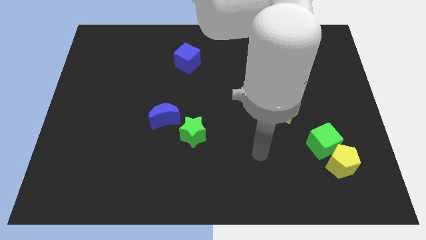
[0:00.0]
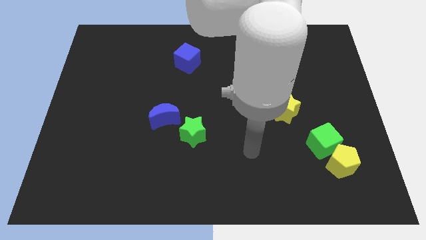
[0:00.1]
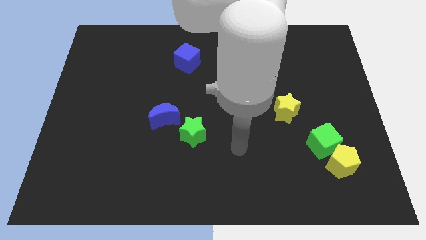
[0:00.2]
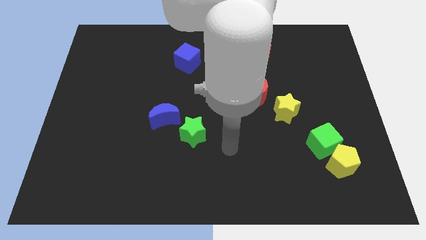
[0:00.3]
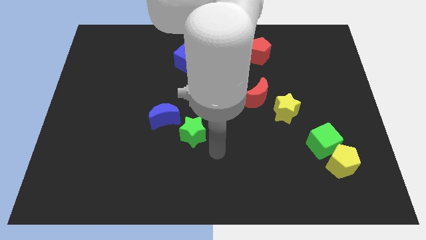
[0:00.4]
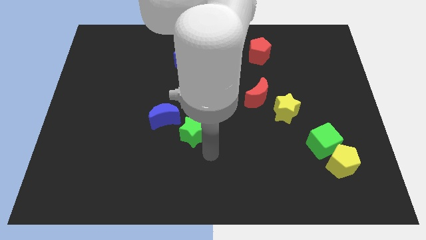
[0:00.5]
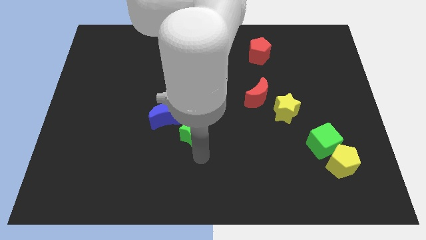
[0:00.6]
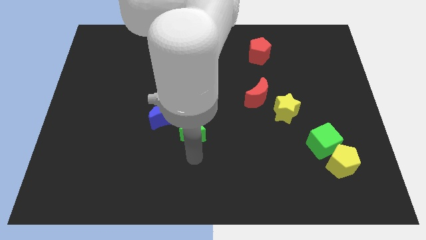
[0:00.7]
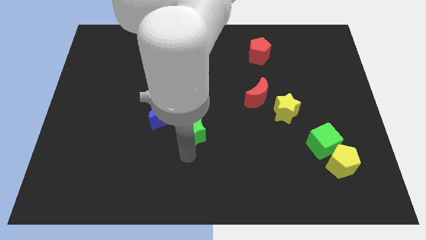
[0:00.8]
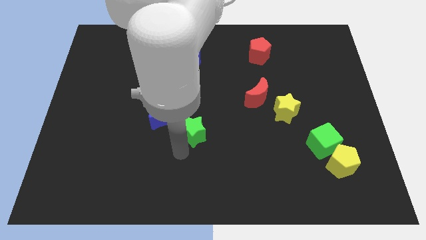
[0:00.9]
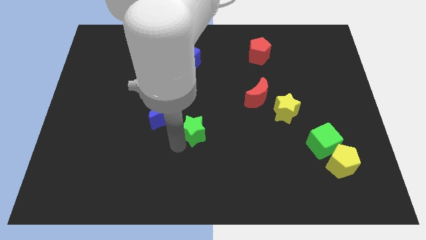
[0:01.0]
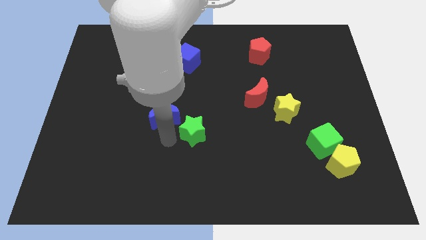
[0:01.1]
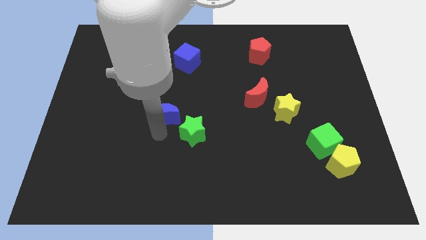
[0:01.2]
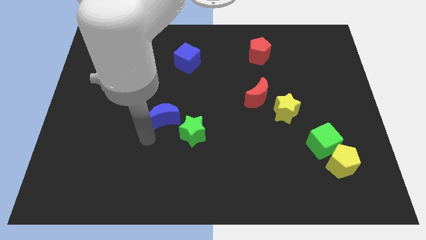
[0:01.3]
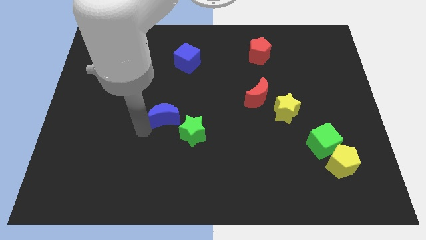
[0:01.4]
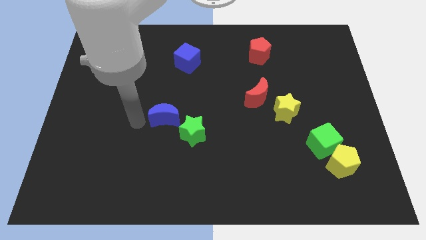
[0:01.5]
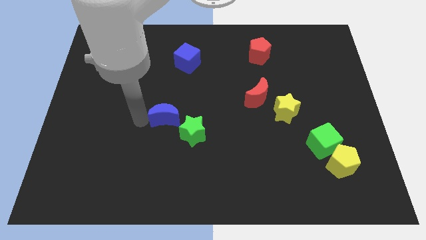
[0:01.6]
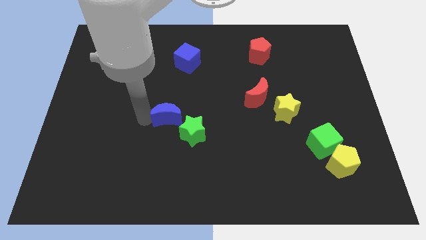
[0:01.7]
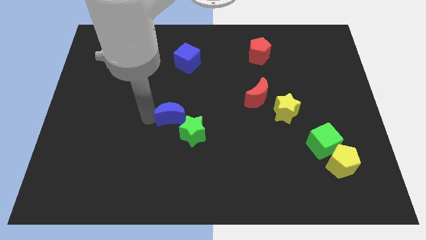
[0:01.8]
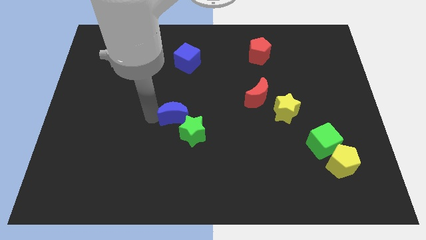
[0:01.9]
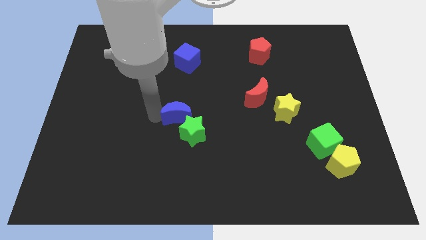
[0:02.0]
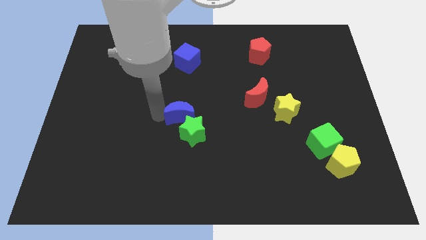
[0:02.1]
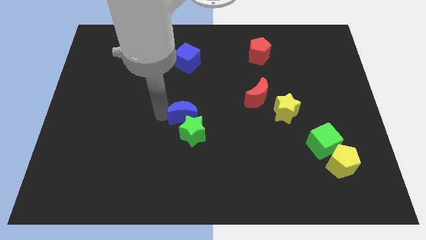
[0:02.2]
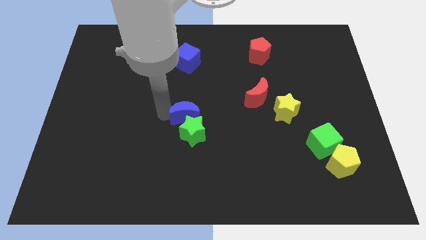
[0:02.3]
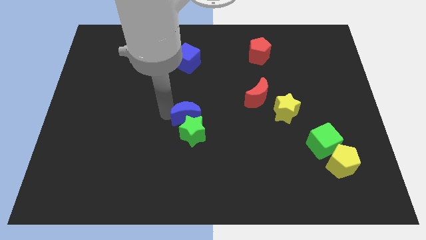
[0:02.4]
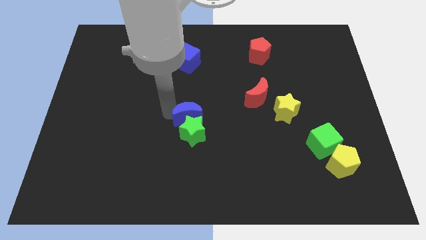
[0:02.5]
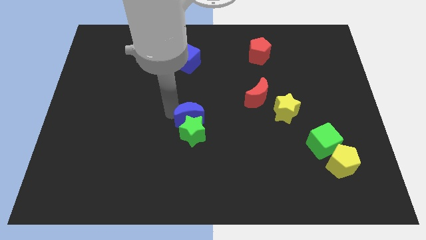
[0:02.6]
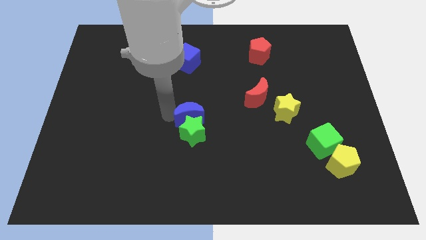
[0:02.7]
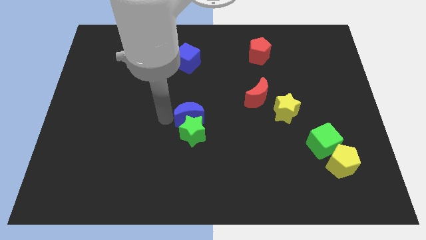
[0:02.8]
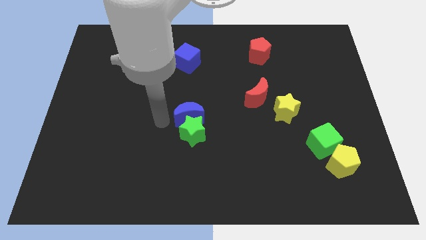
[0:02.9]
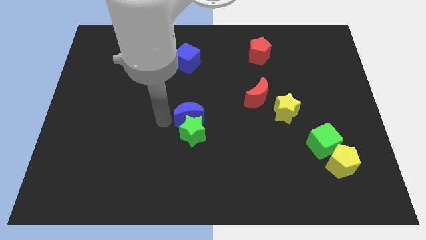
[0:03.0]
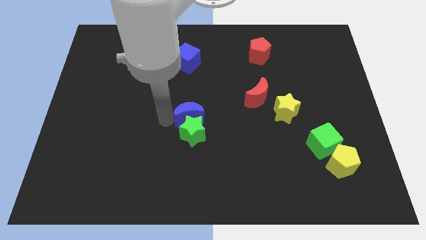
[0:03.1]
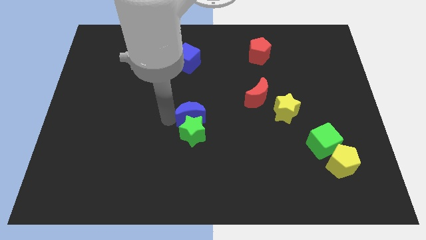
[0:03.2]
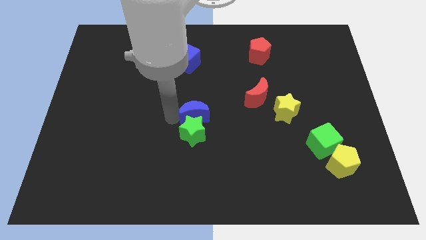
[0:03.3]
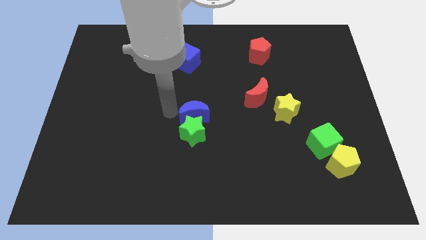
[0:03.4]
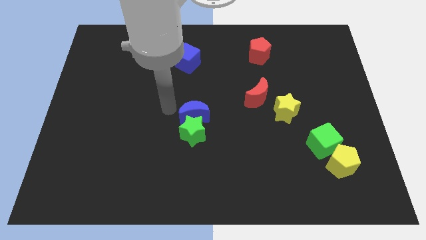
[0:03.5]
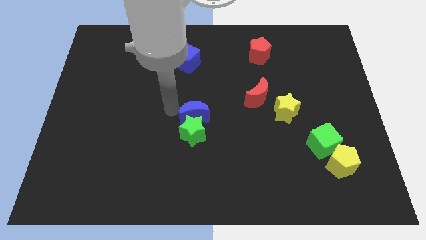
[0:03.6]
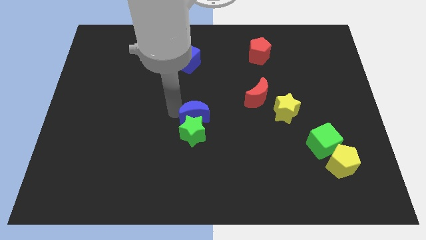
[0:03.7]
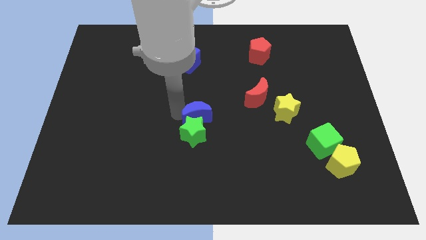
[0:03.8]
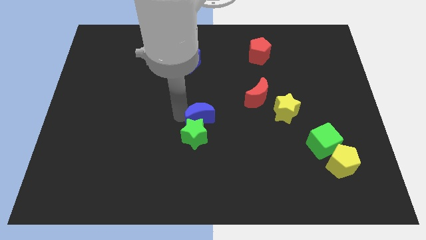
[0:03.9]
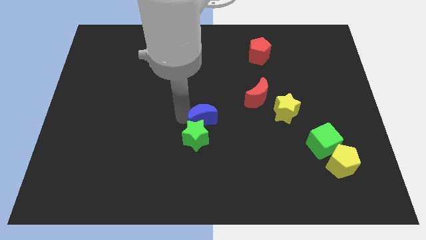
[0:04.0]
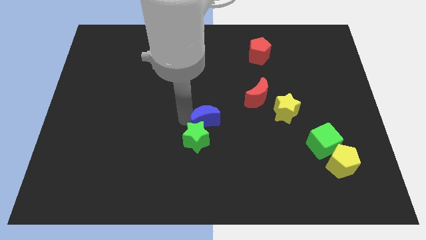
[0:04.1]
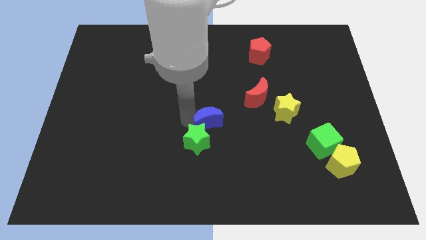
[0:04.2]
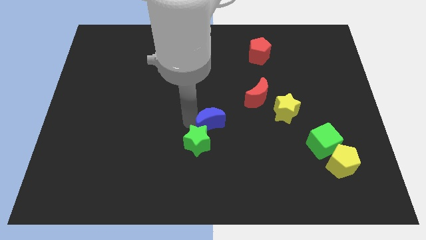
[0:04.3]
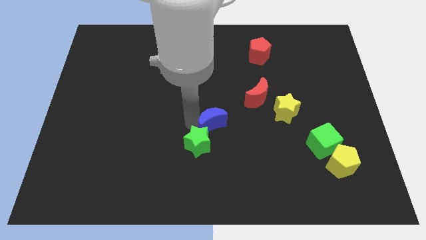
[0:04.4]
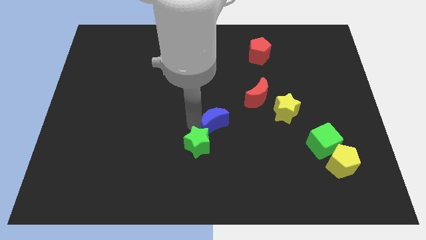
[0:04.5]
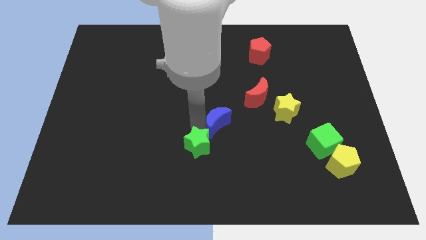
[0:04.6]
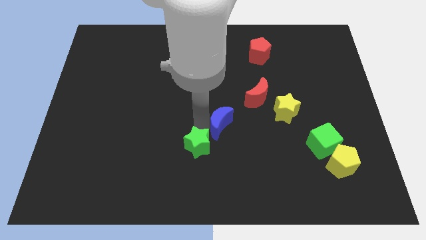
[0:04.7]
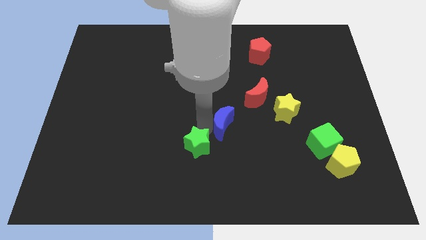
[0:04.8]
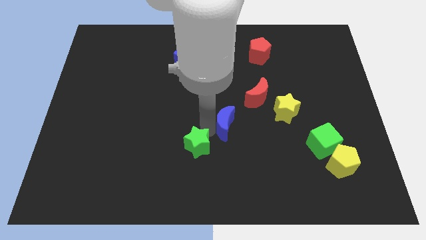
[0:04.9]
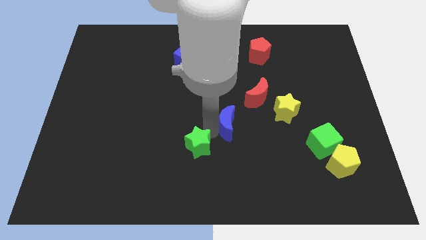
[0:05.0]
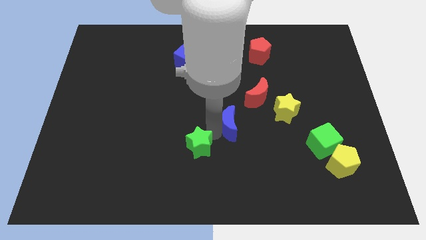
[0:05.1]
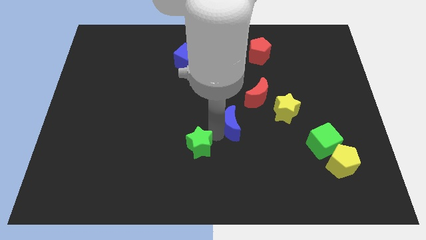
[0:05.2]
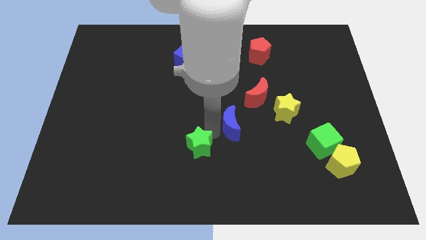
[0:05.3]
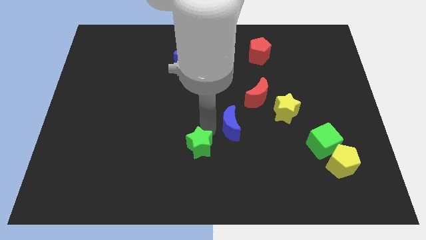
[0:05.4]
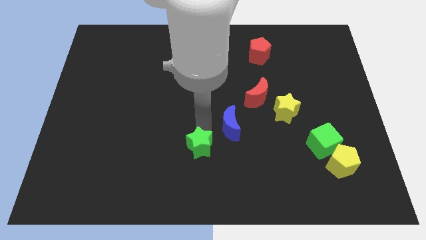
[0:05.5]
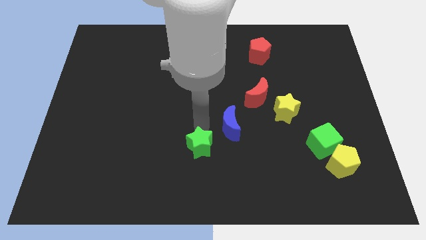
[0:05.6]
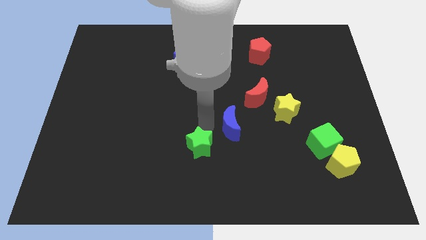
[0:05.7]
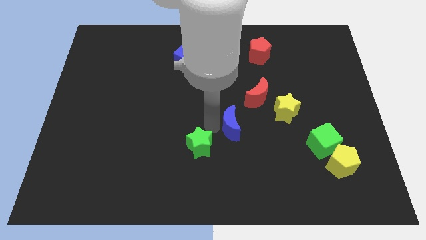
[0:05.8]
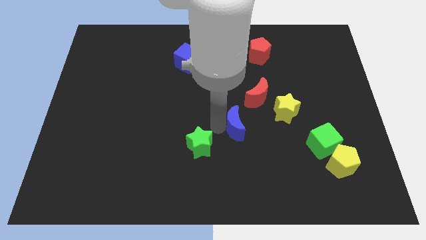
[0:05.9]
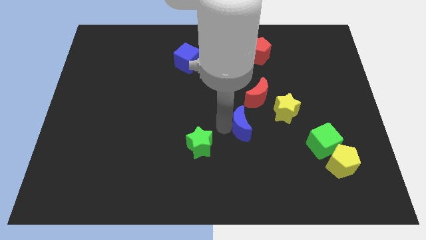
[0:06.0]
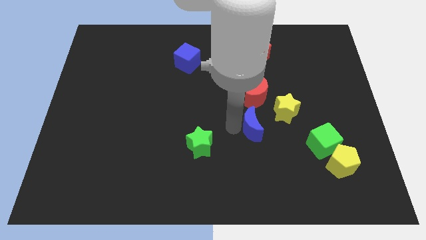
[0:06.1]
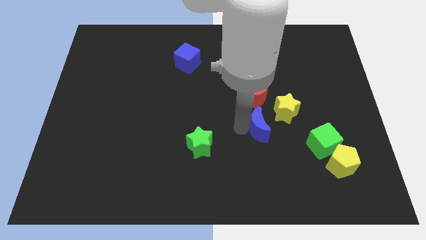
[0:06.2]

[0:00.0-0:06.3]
slide the blue moon right

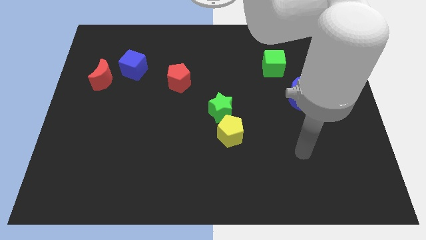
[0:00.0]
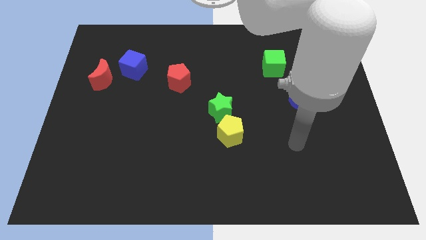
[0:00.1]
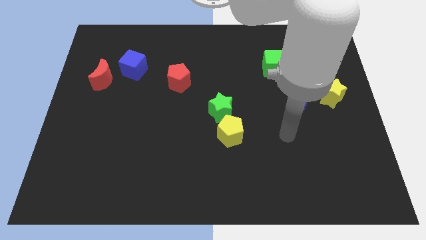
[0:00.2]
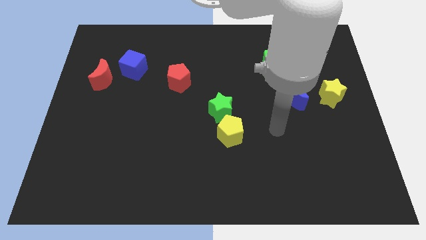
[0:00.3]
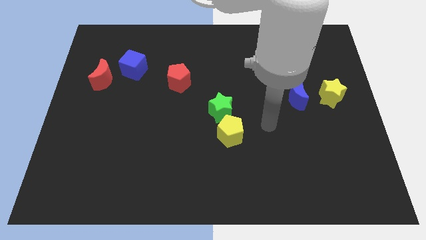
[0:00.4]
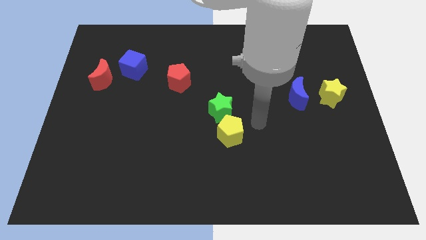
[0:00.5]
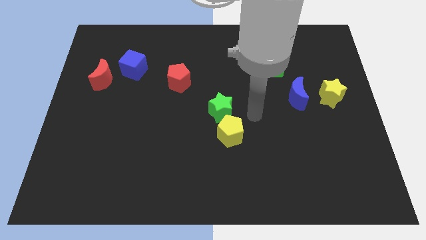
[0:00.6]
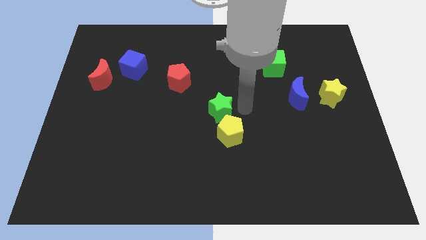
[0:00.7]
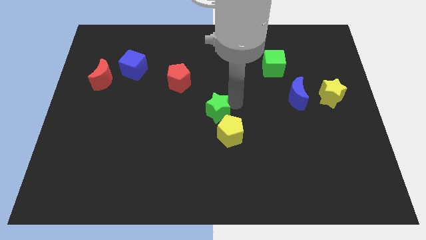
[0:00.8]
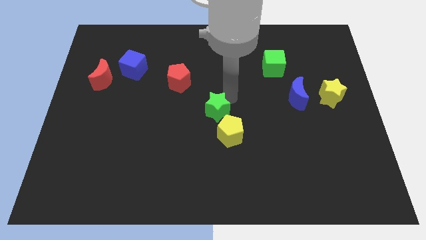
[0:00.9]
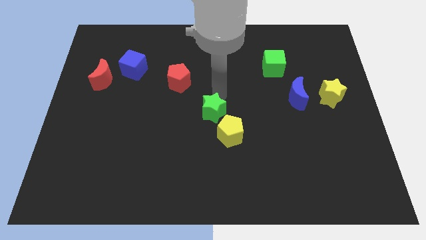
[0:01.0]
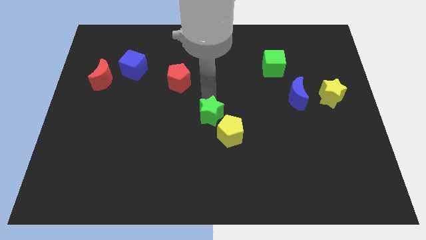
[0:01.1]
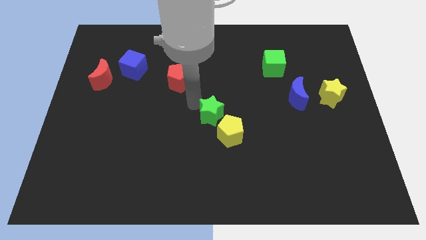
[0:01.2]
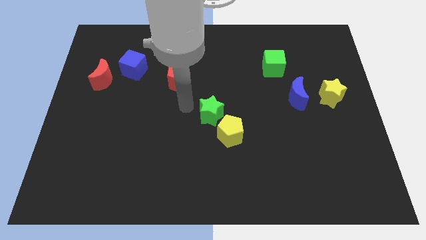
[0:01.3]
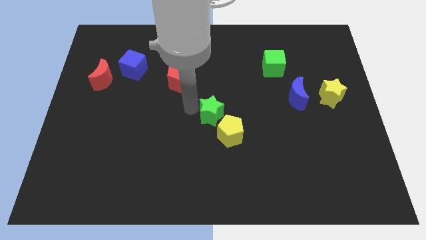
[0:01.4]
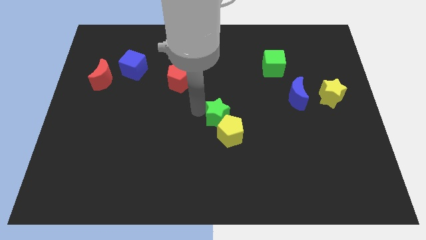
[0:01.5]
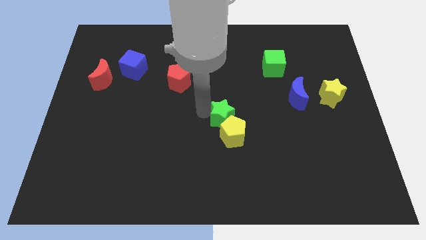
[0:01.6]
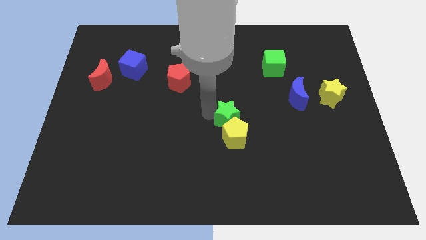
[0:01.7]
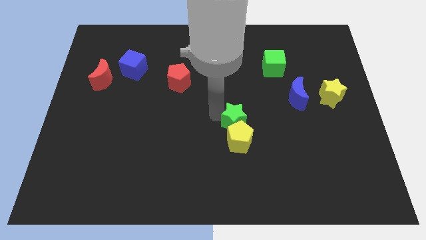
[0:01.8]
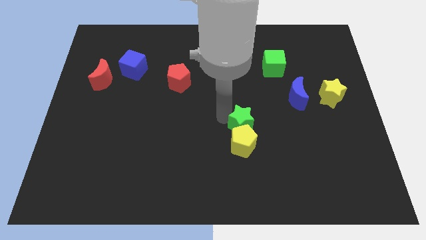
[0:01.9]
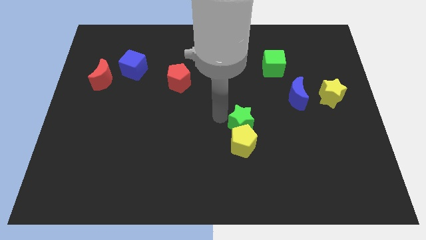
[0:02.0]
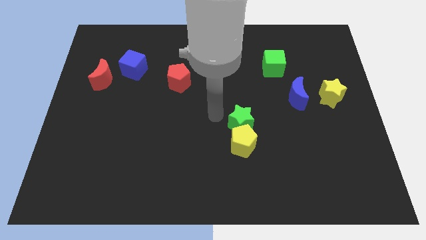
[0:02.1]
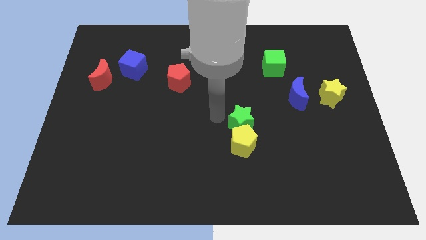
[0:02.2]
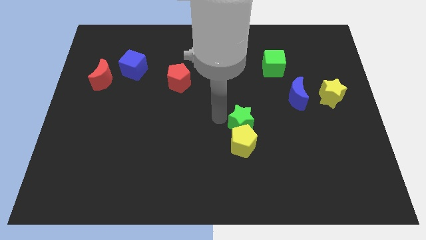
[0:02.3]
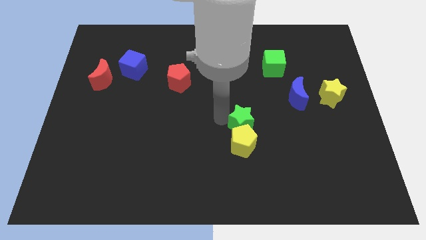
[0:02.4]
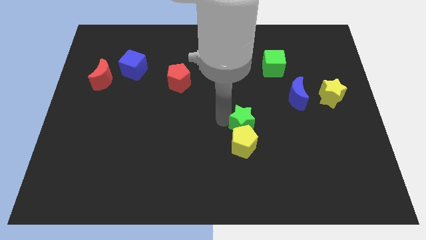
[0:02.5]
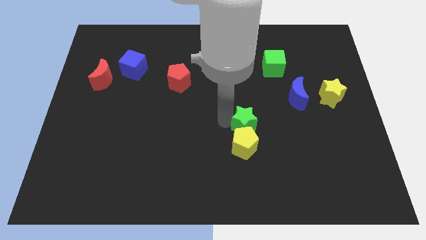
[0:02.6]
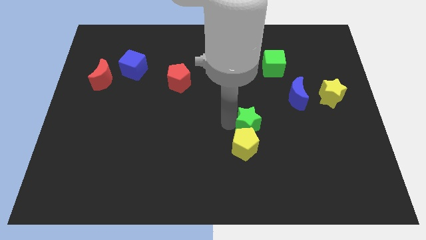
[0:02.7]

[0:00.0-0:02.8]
move the green star a little bit downwards and right diagonally
